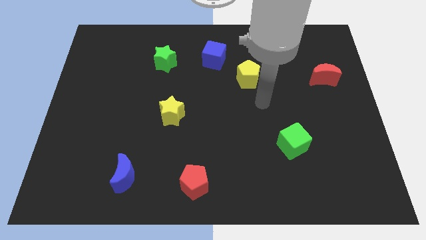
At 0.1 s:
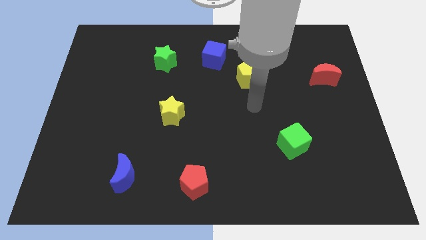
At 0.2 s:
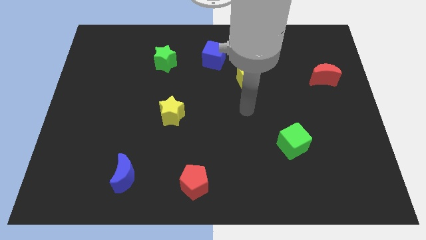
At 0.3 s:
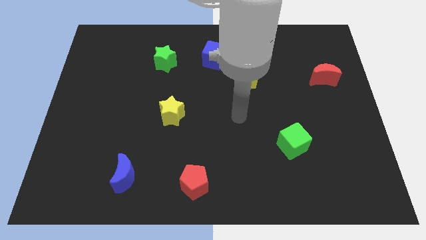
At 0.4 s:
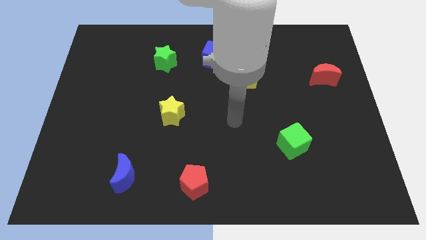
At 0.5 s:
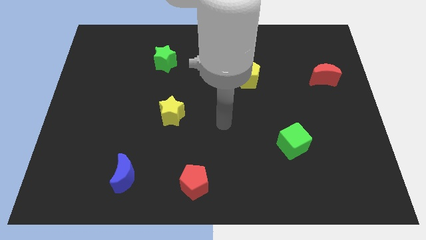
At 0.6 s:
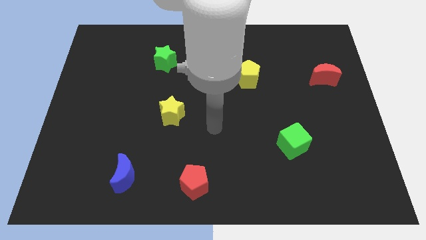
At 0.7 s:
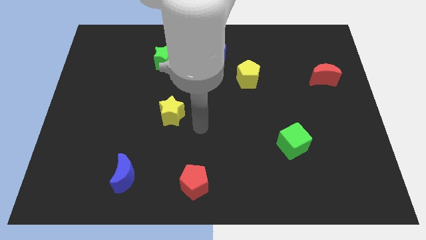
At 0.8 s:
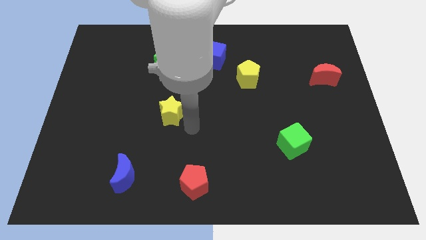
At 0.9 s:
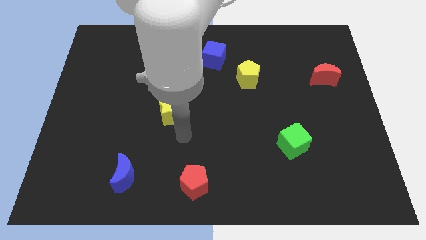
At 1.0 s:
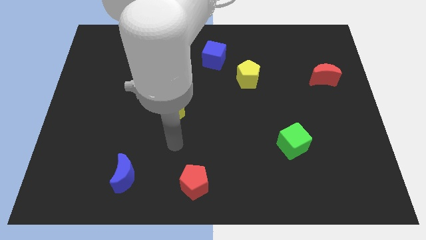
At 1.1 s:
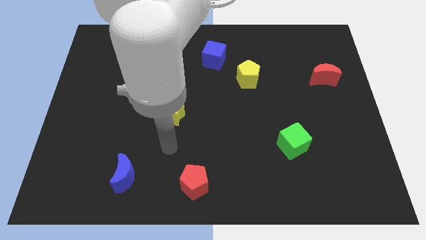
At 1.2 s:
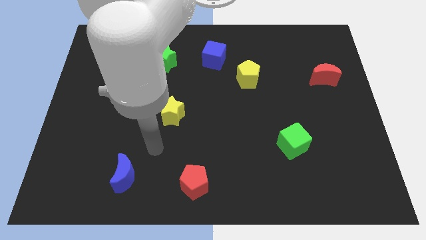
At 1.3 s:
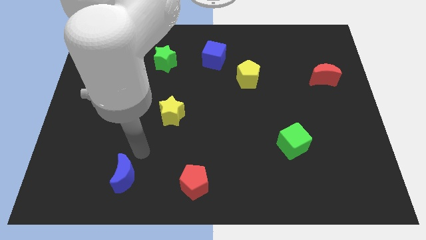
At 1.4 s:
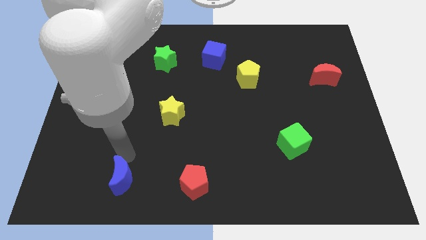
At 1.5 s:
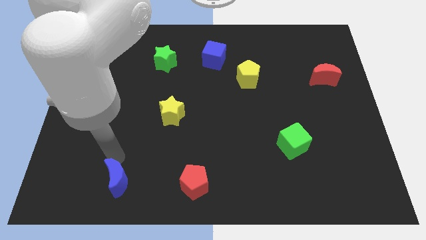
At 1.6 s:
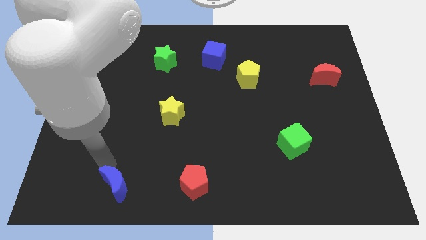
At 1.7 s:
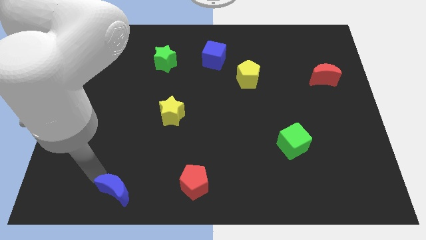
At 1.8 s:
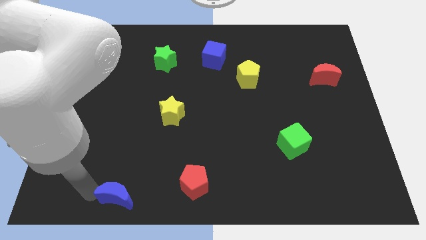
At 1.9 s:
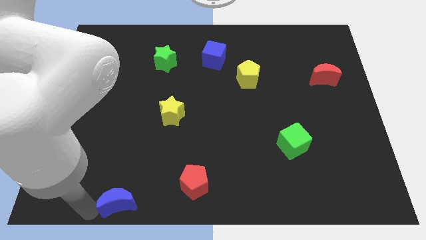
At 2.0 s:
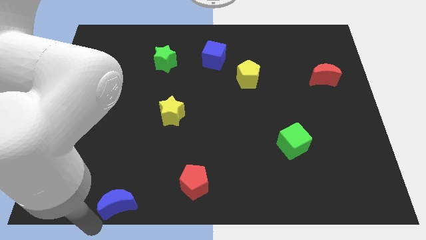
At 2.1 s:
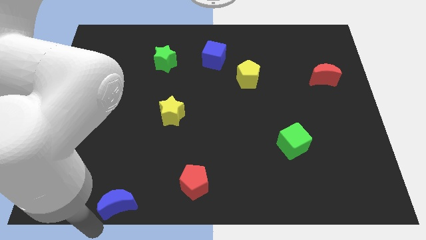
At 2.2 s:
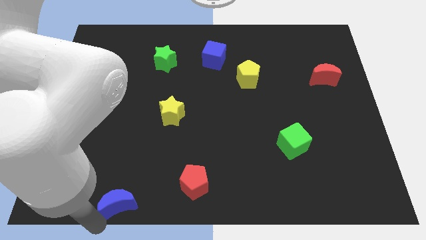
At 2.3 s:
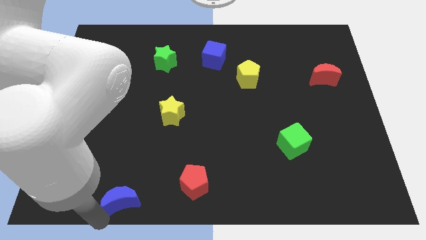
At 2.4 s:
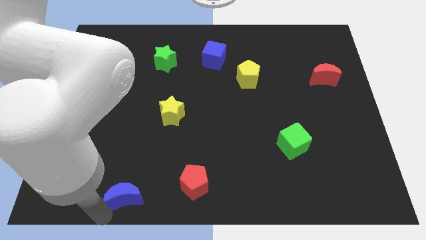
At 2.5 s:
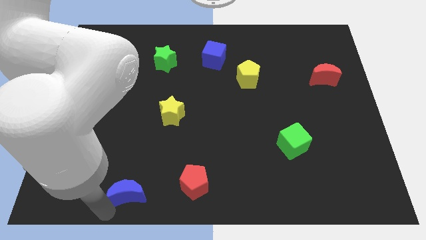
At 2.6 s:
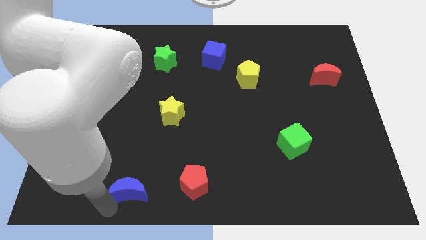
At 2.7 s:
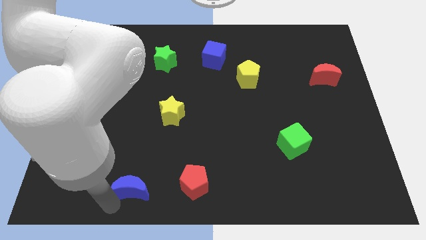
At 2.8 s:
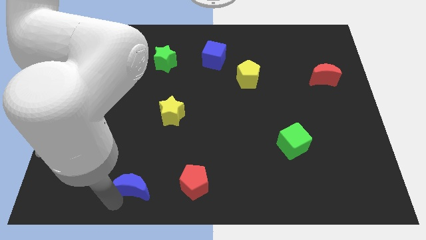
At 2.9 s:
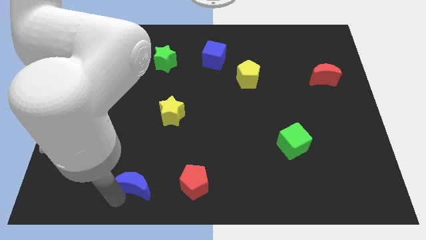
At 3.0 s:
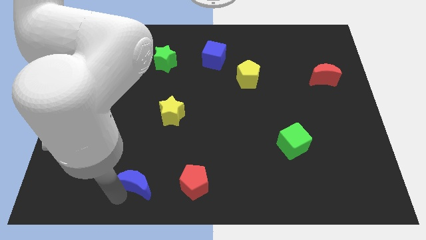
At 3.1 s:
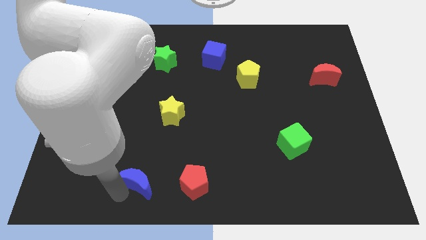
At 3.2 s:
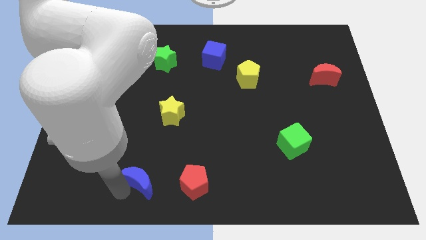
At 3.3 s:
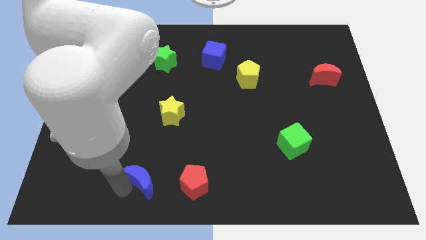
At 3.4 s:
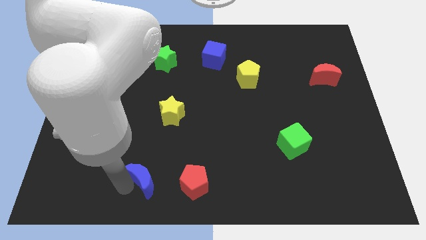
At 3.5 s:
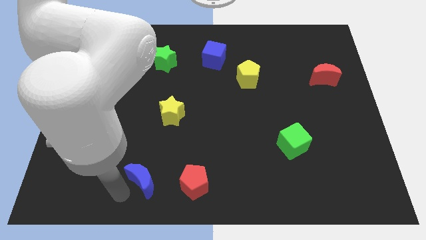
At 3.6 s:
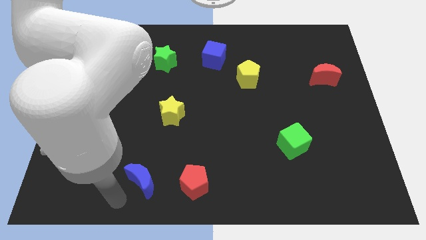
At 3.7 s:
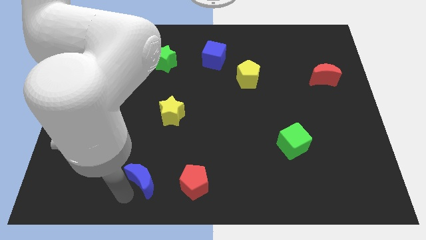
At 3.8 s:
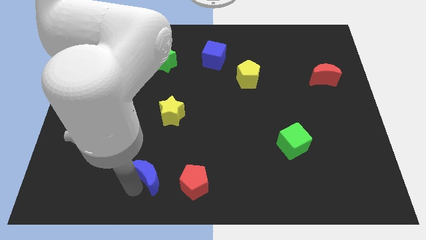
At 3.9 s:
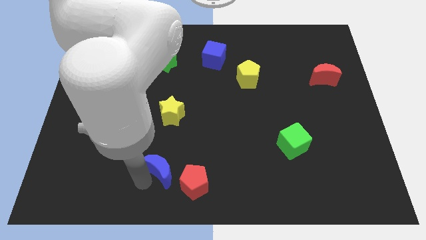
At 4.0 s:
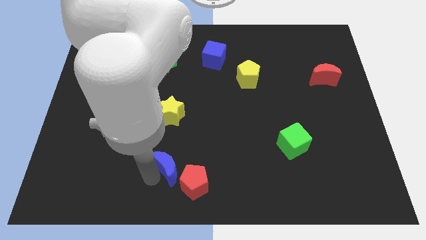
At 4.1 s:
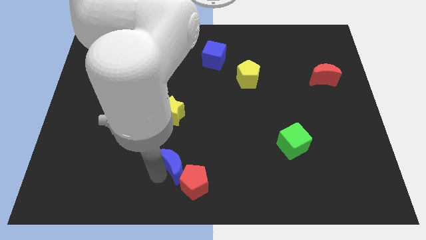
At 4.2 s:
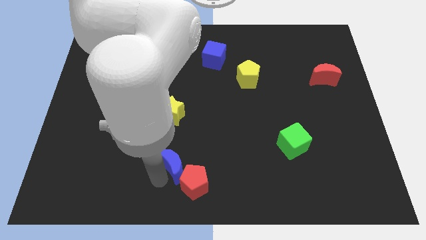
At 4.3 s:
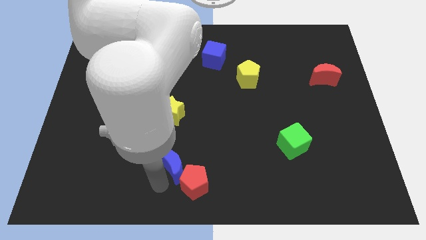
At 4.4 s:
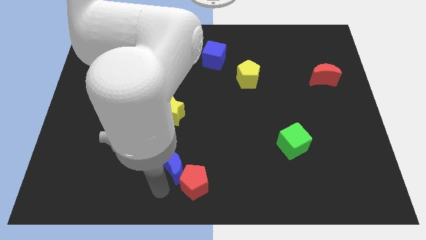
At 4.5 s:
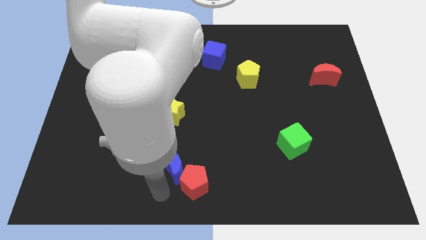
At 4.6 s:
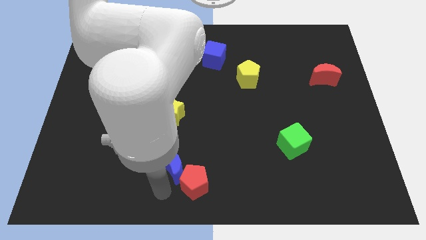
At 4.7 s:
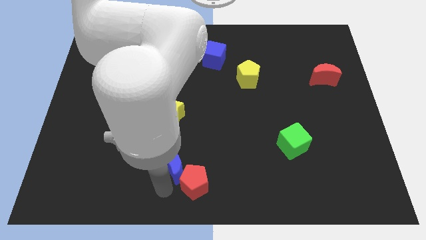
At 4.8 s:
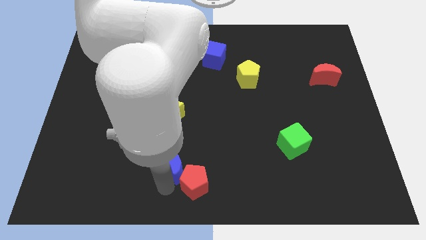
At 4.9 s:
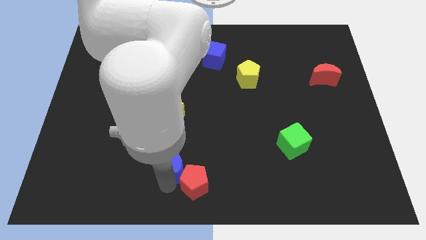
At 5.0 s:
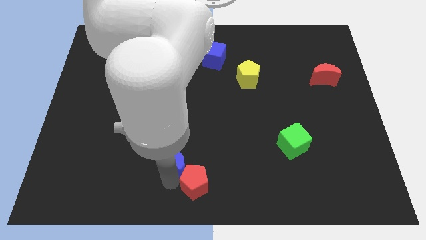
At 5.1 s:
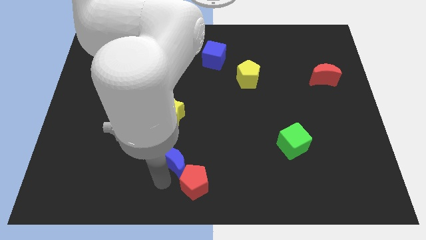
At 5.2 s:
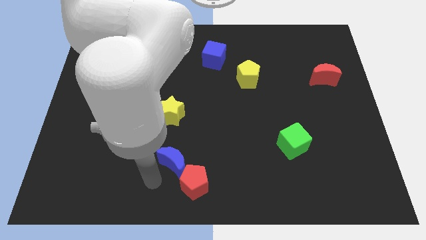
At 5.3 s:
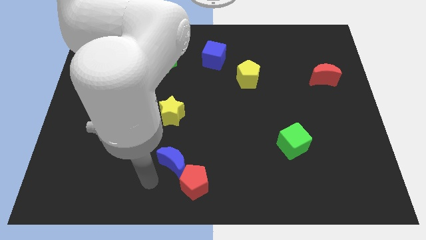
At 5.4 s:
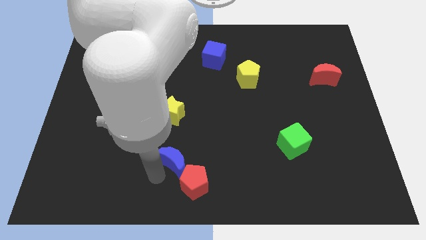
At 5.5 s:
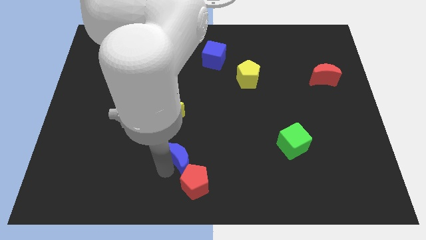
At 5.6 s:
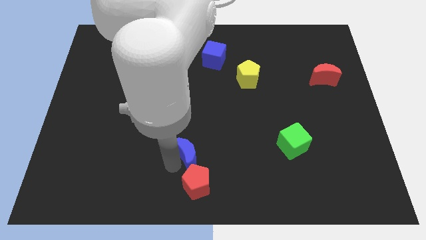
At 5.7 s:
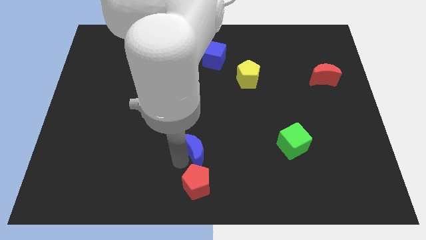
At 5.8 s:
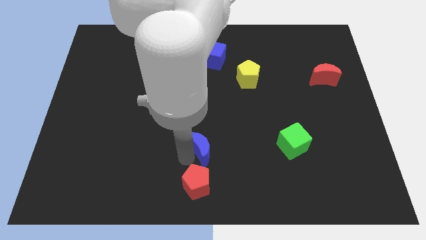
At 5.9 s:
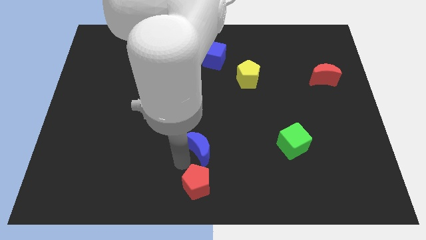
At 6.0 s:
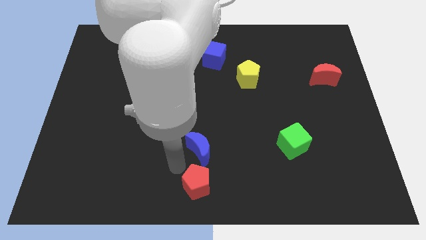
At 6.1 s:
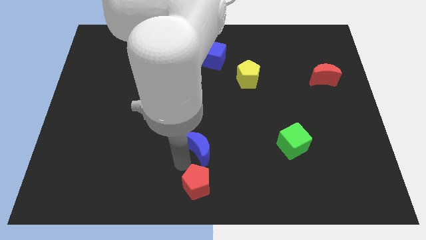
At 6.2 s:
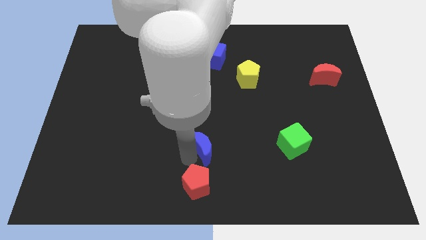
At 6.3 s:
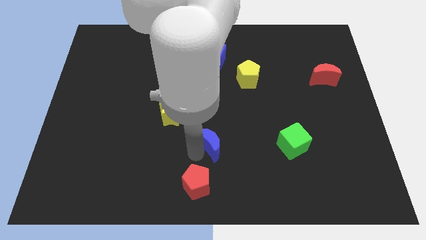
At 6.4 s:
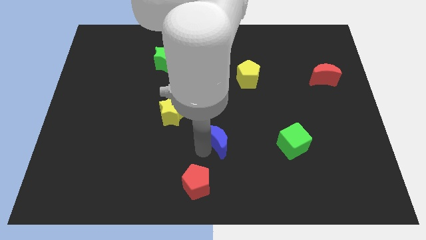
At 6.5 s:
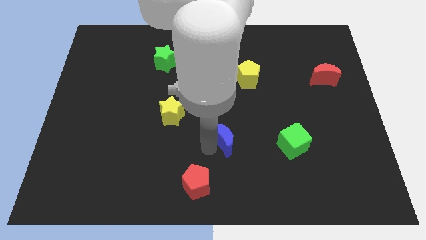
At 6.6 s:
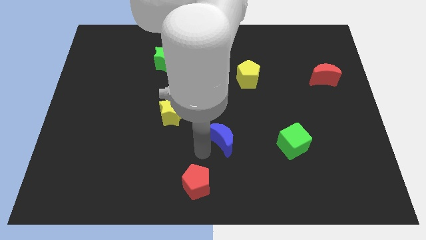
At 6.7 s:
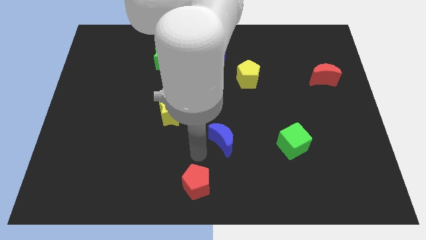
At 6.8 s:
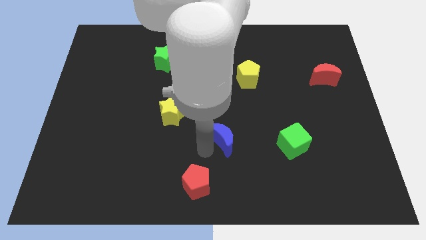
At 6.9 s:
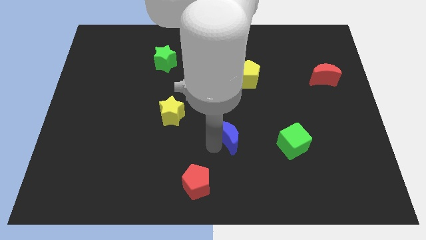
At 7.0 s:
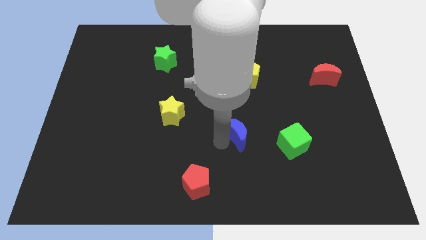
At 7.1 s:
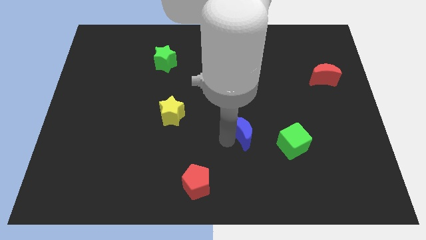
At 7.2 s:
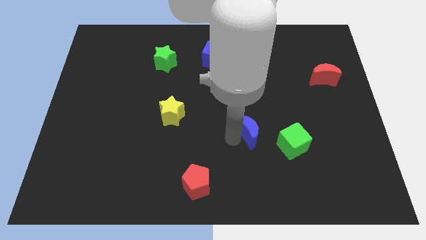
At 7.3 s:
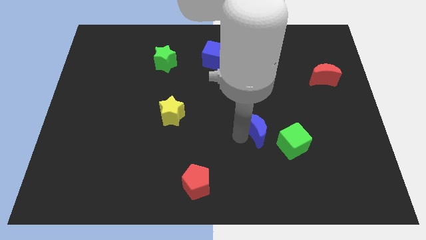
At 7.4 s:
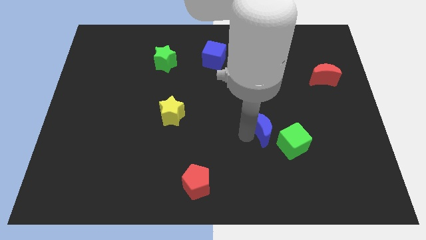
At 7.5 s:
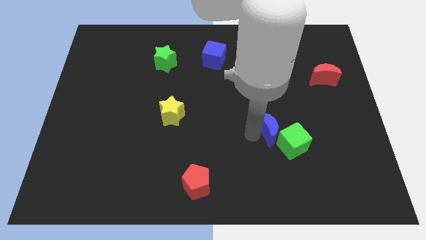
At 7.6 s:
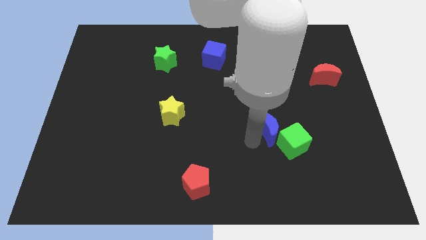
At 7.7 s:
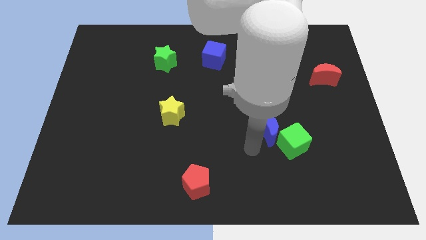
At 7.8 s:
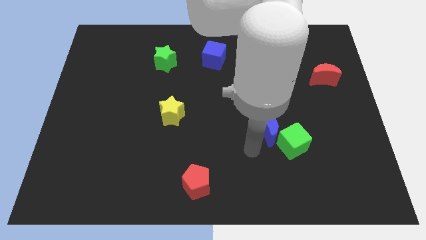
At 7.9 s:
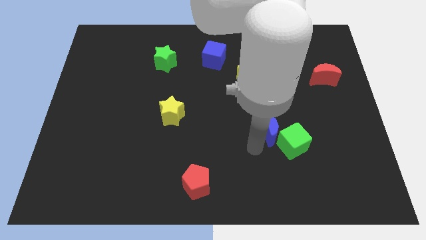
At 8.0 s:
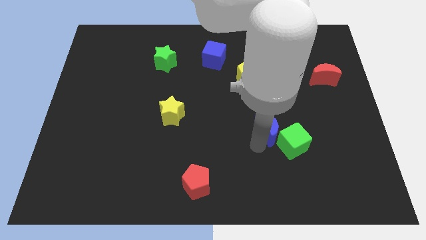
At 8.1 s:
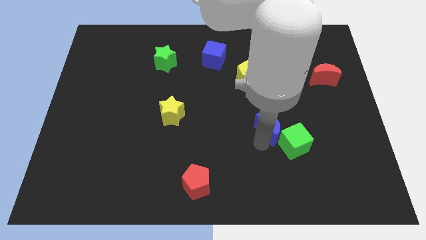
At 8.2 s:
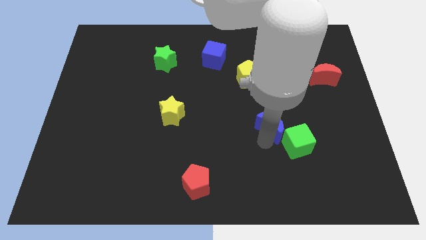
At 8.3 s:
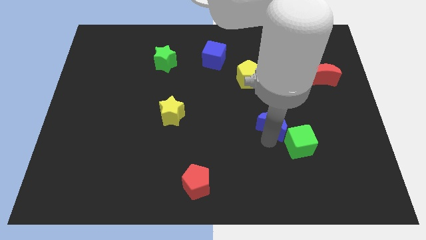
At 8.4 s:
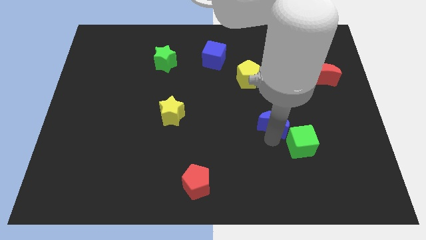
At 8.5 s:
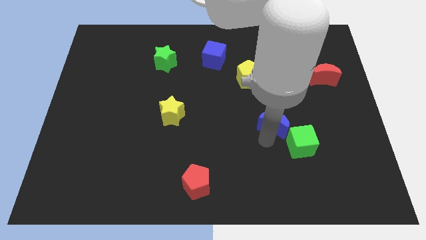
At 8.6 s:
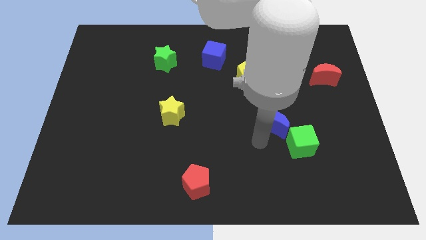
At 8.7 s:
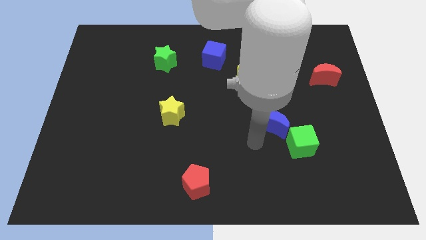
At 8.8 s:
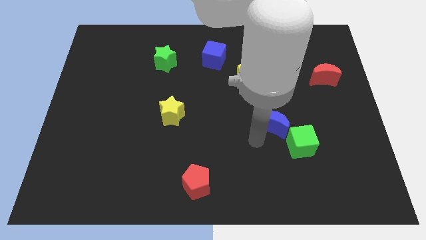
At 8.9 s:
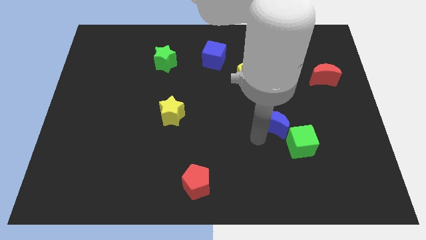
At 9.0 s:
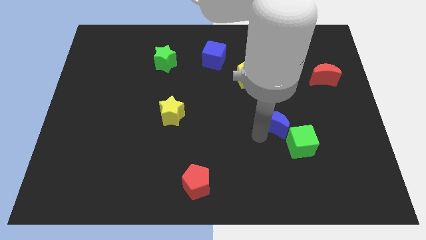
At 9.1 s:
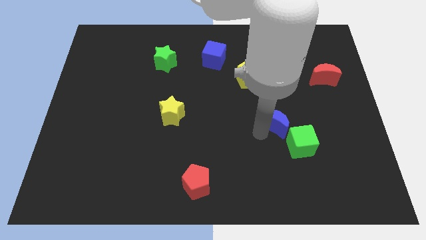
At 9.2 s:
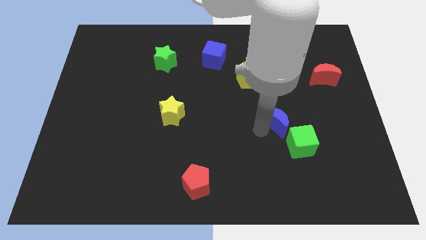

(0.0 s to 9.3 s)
put the blue moon above the green cube
